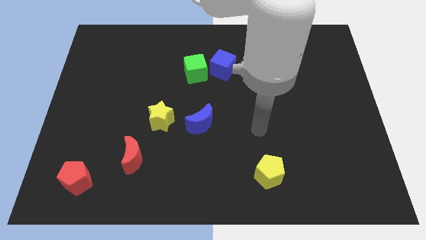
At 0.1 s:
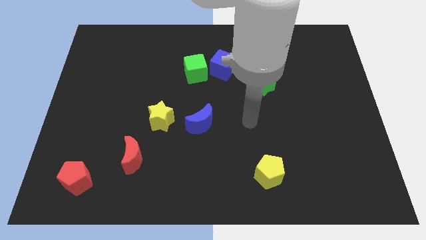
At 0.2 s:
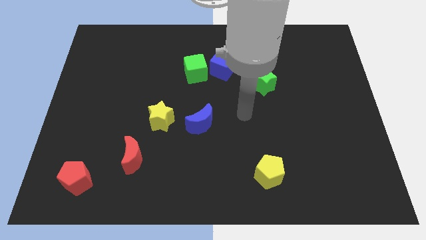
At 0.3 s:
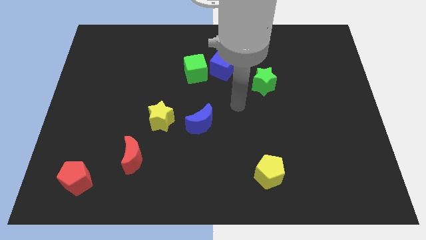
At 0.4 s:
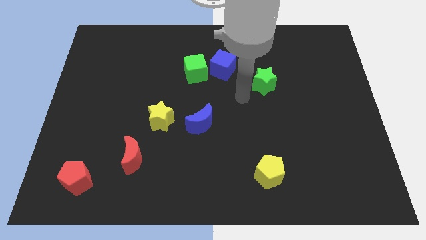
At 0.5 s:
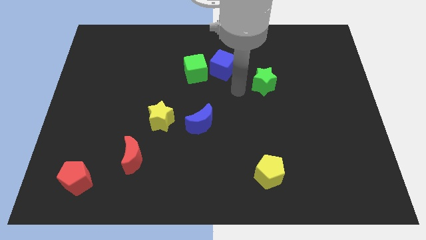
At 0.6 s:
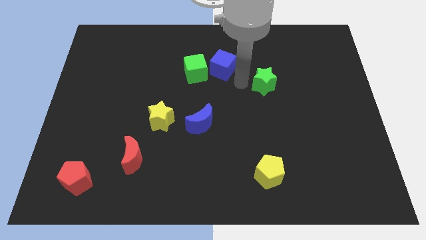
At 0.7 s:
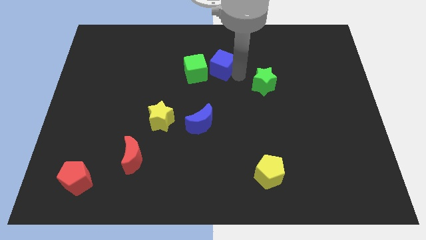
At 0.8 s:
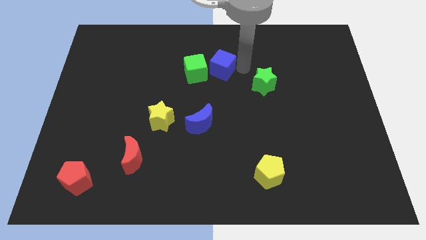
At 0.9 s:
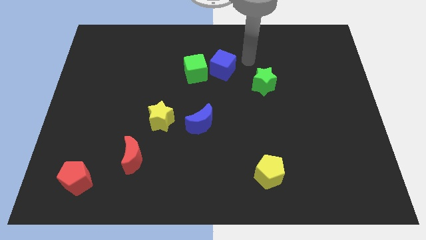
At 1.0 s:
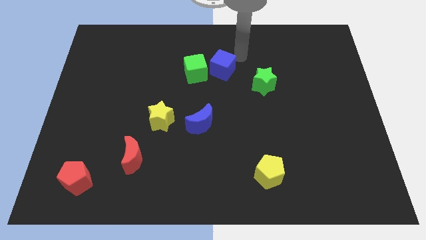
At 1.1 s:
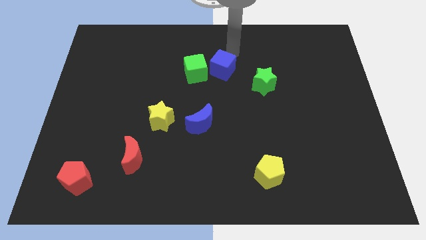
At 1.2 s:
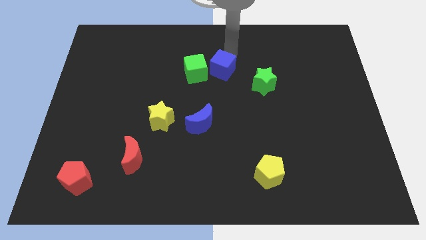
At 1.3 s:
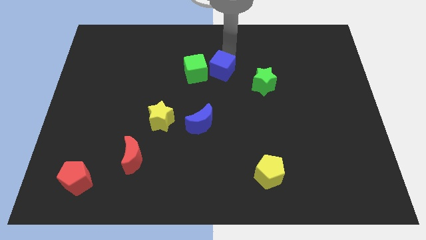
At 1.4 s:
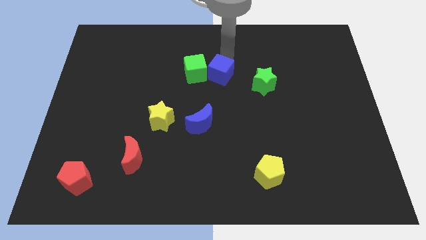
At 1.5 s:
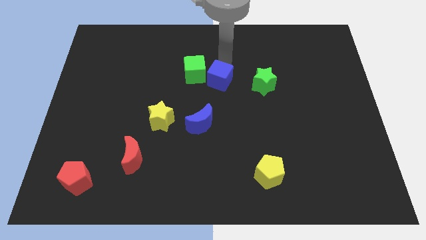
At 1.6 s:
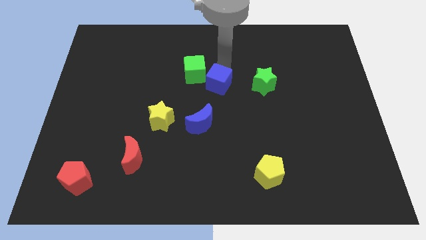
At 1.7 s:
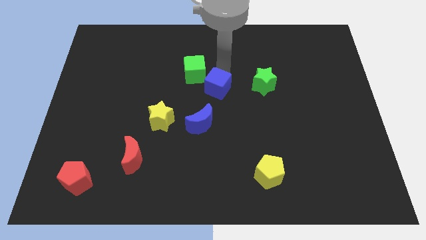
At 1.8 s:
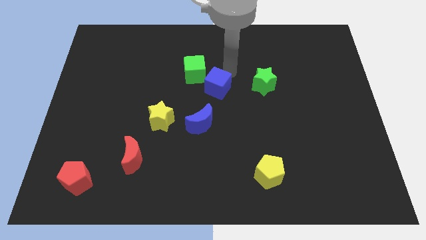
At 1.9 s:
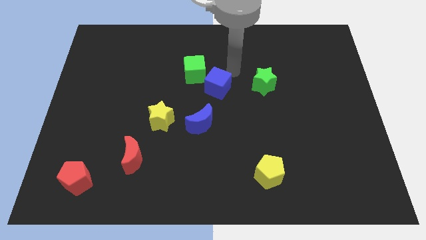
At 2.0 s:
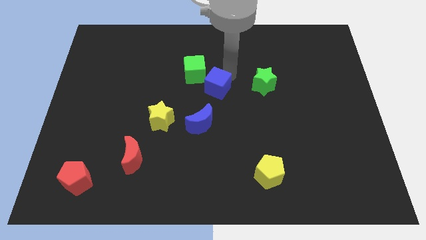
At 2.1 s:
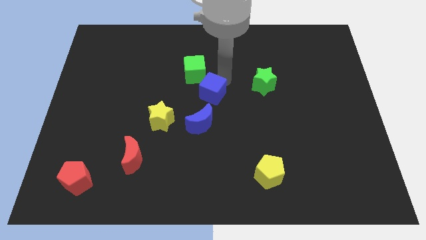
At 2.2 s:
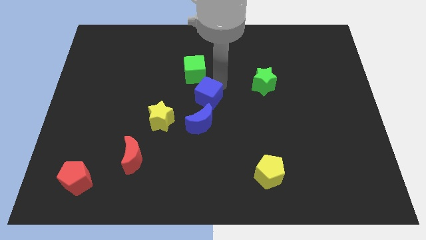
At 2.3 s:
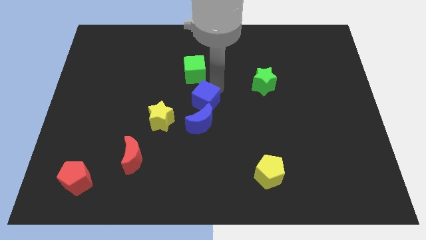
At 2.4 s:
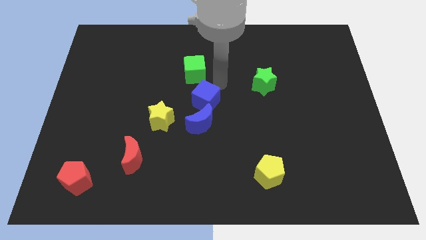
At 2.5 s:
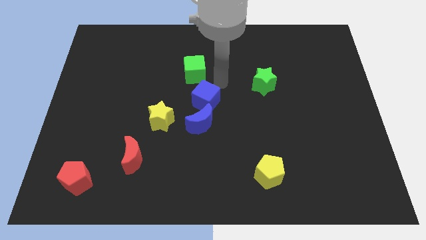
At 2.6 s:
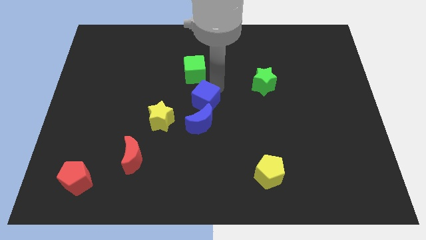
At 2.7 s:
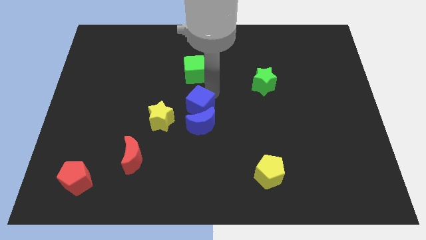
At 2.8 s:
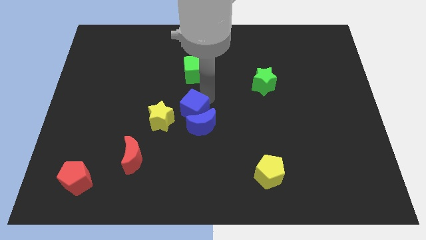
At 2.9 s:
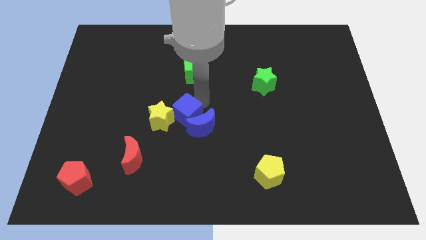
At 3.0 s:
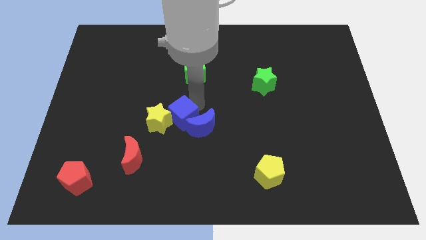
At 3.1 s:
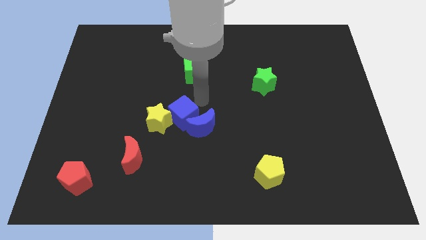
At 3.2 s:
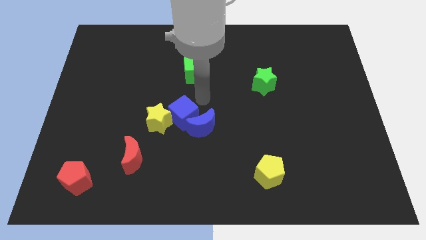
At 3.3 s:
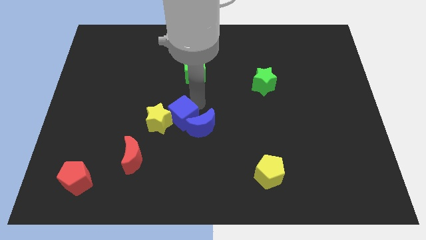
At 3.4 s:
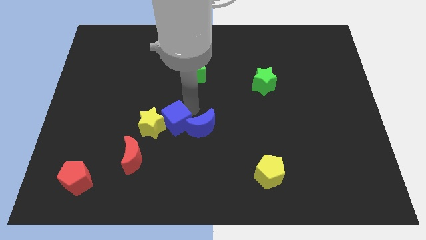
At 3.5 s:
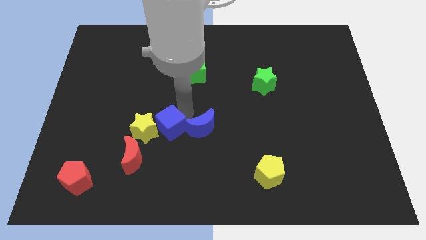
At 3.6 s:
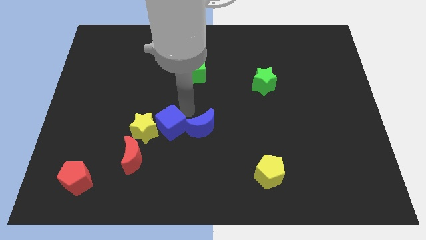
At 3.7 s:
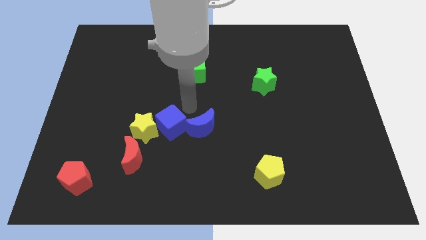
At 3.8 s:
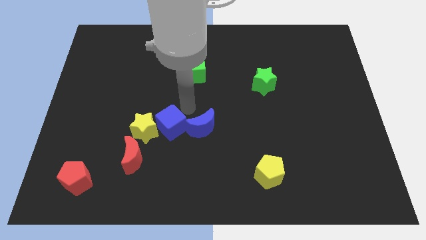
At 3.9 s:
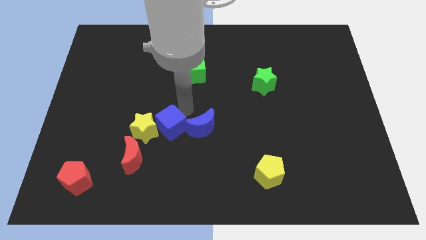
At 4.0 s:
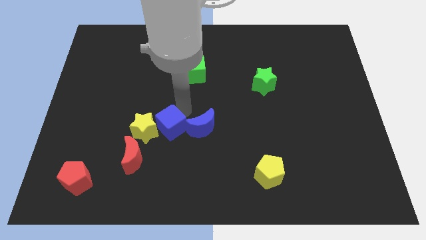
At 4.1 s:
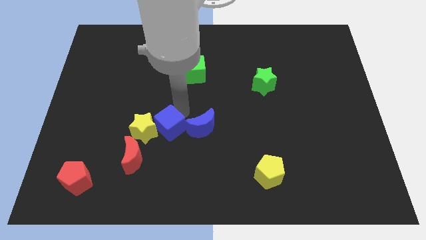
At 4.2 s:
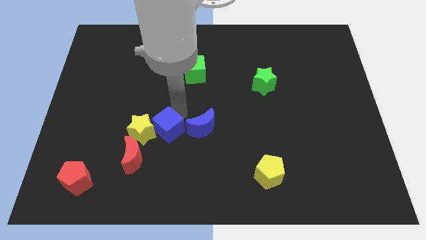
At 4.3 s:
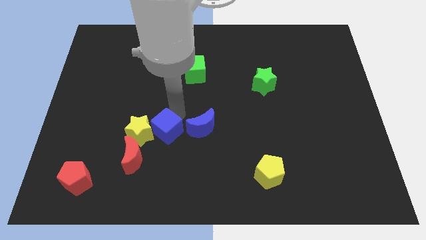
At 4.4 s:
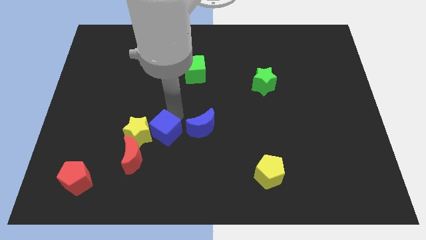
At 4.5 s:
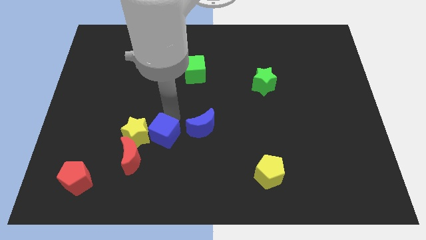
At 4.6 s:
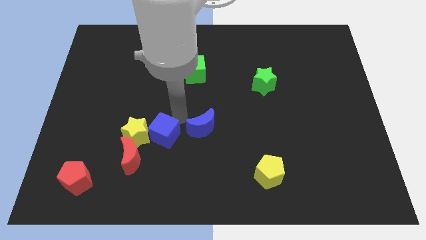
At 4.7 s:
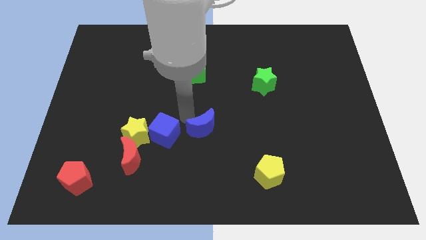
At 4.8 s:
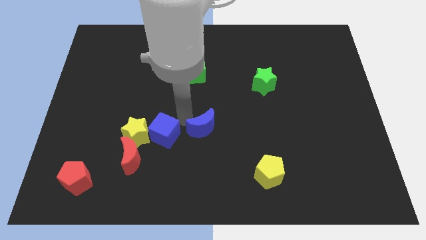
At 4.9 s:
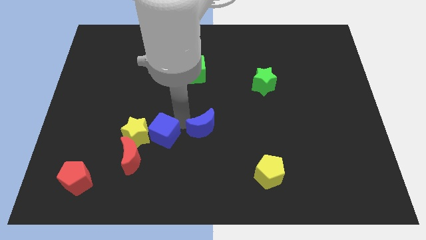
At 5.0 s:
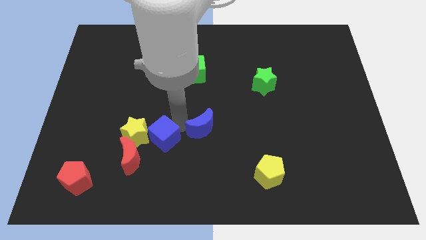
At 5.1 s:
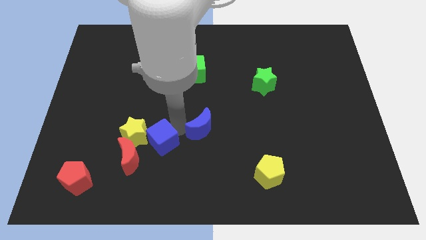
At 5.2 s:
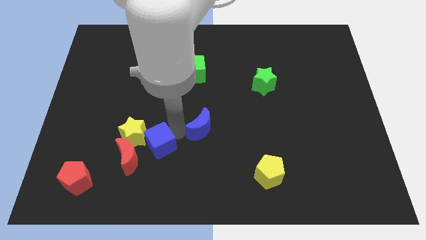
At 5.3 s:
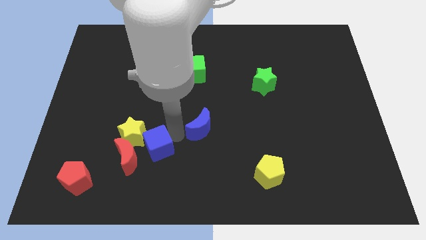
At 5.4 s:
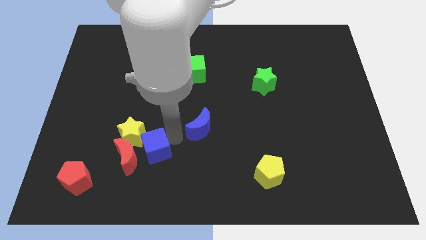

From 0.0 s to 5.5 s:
move the blue cube to the red moon

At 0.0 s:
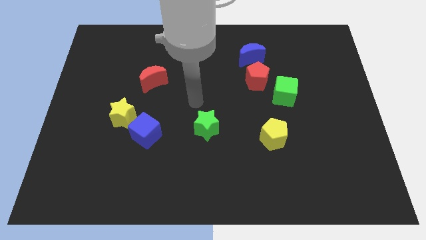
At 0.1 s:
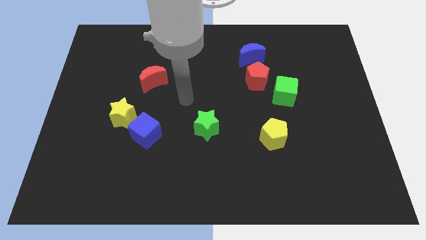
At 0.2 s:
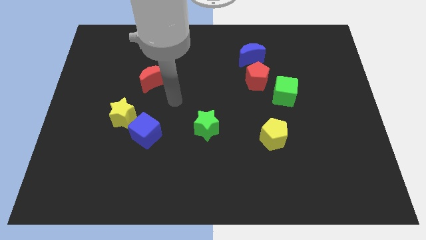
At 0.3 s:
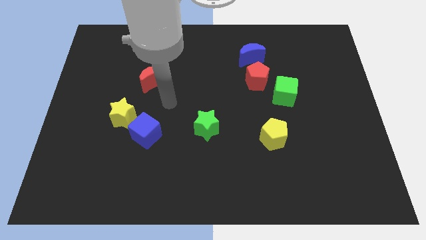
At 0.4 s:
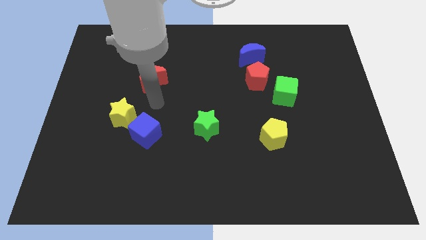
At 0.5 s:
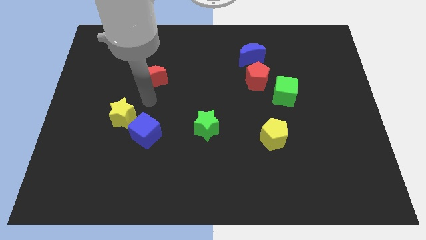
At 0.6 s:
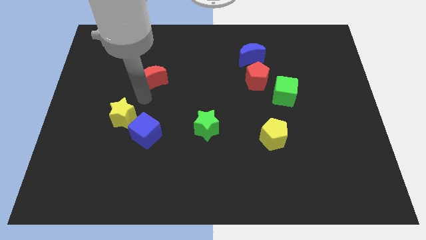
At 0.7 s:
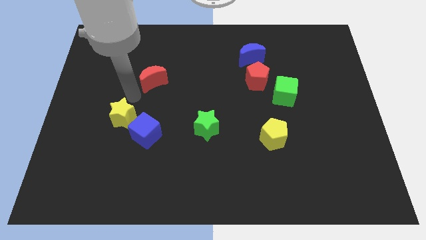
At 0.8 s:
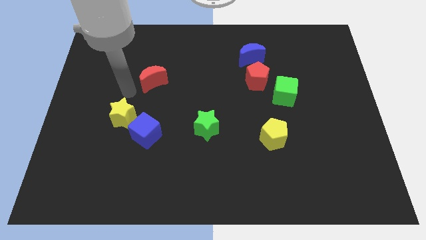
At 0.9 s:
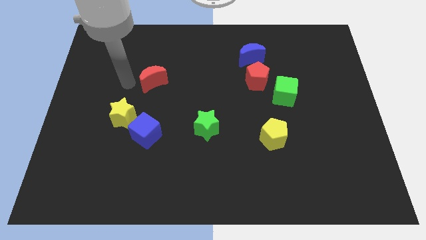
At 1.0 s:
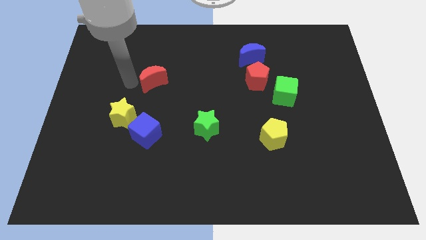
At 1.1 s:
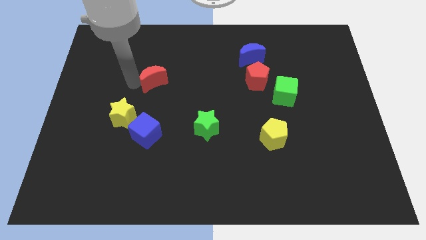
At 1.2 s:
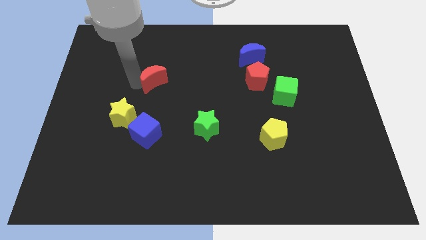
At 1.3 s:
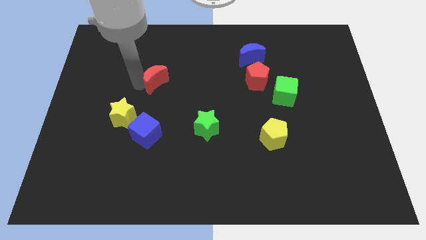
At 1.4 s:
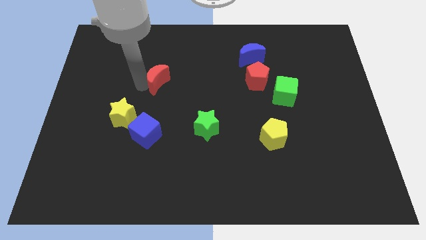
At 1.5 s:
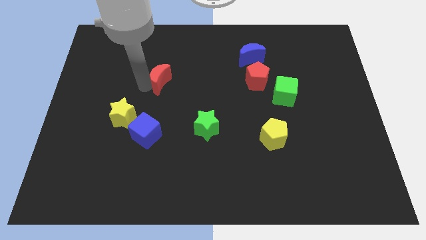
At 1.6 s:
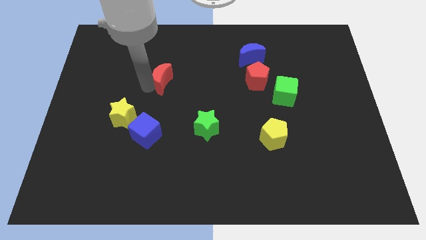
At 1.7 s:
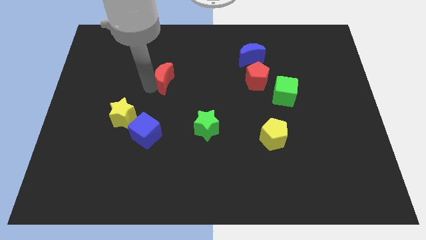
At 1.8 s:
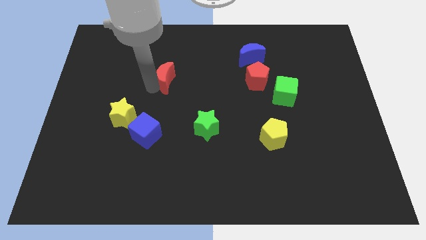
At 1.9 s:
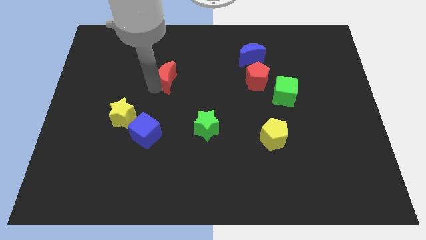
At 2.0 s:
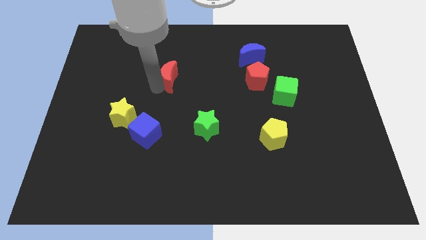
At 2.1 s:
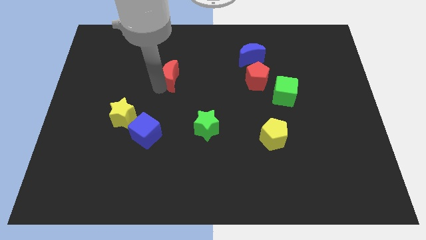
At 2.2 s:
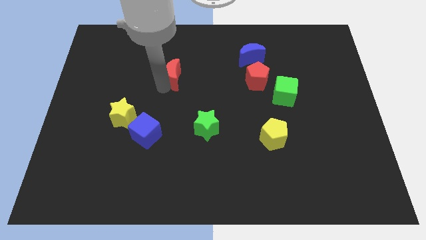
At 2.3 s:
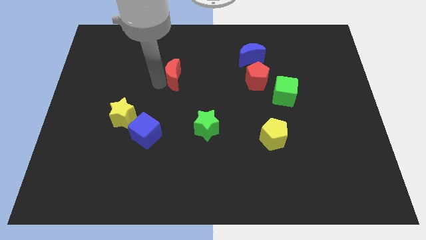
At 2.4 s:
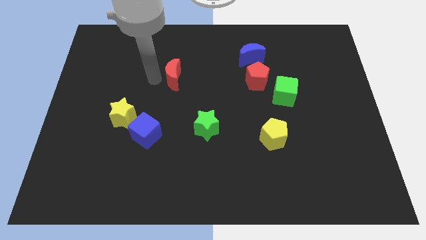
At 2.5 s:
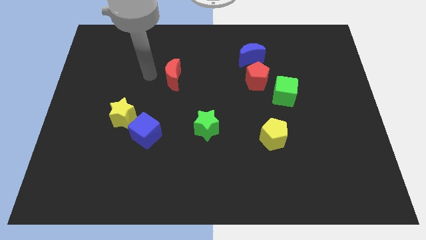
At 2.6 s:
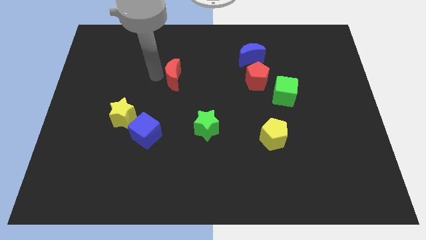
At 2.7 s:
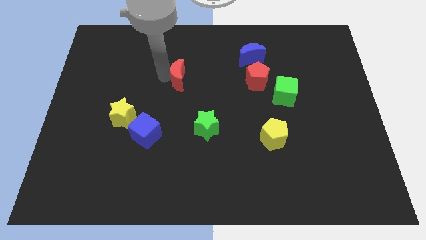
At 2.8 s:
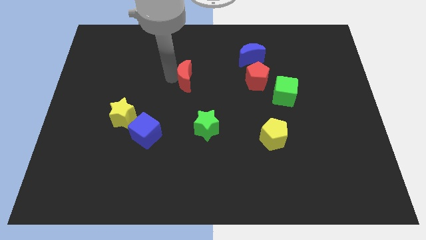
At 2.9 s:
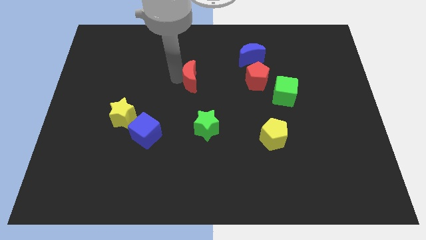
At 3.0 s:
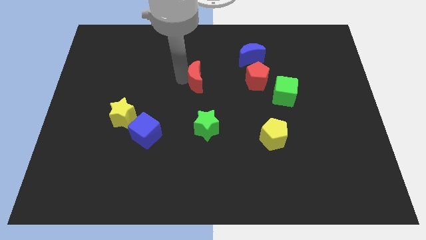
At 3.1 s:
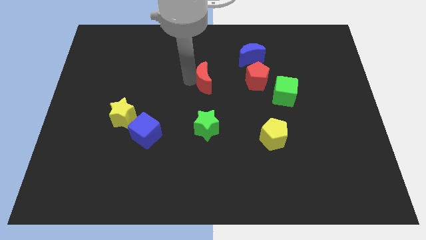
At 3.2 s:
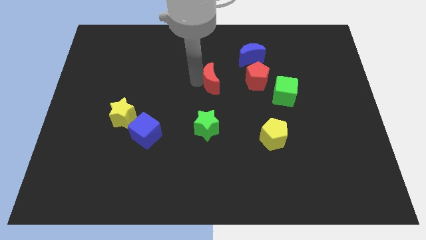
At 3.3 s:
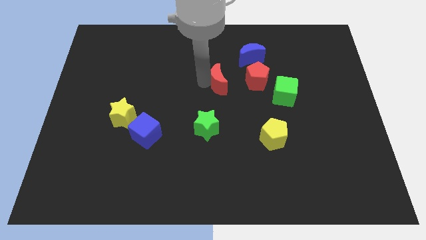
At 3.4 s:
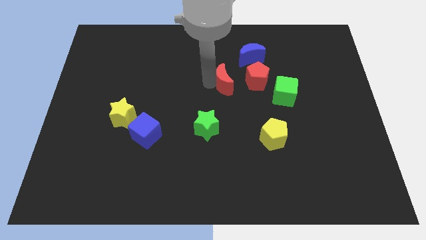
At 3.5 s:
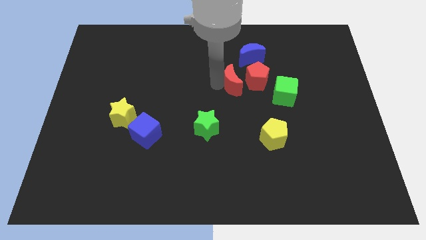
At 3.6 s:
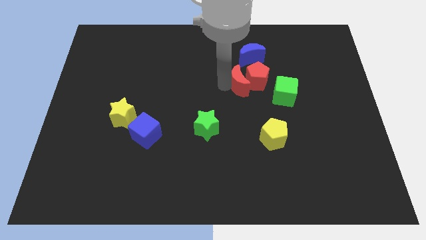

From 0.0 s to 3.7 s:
push the red moon to the red pentagon
